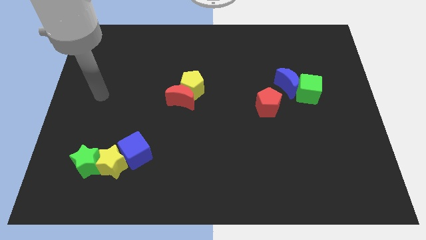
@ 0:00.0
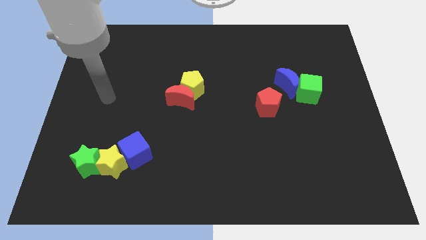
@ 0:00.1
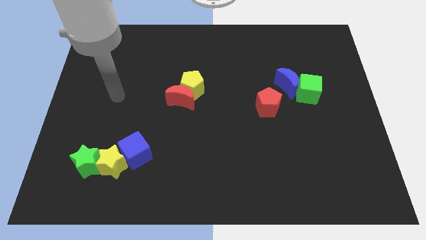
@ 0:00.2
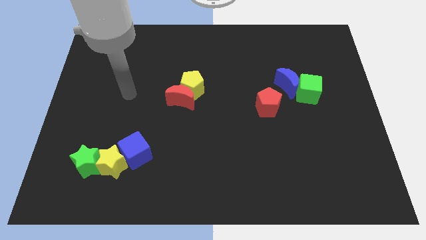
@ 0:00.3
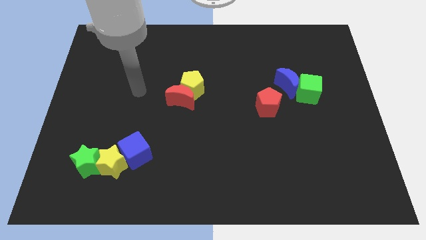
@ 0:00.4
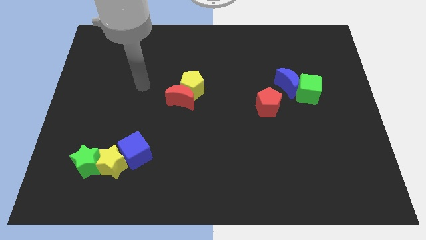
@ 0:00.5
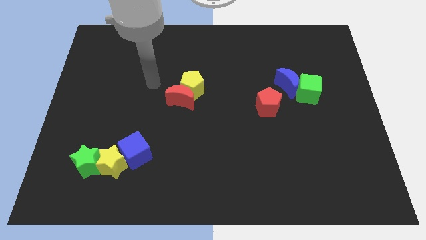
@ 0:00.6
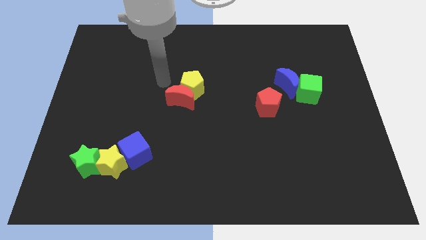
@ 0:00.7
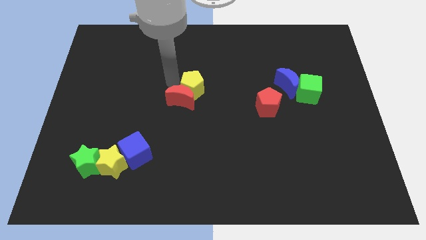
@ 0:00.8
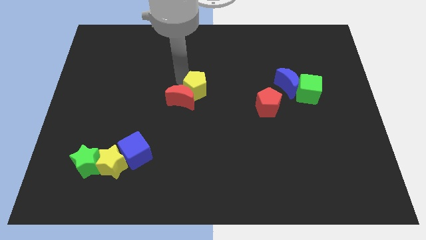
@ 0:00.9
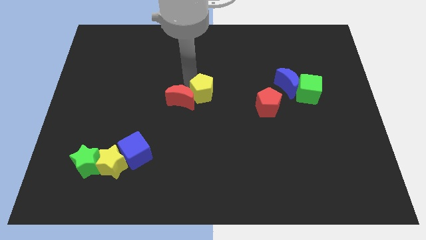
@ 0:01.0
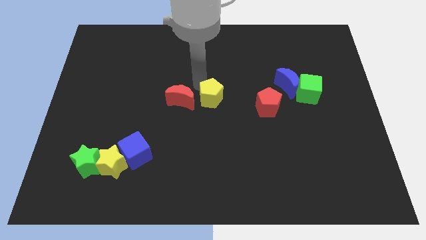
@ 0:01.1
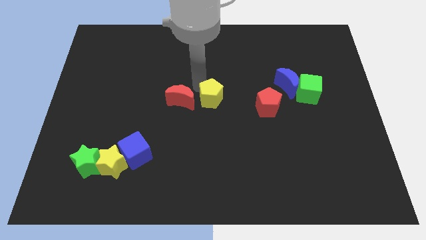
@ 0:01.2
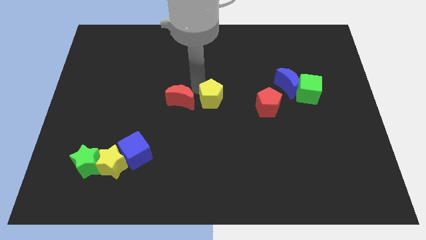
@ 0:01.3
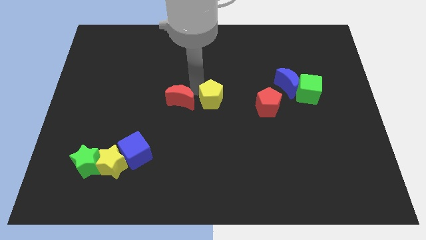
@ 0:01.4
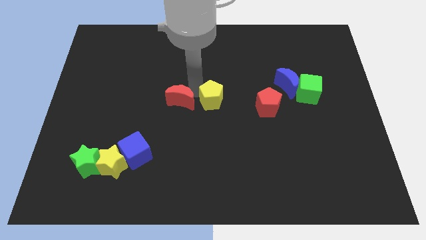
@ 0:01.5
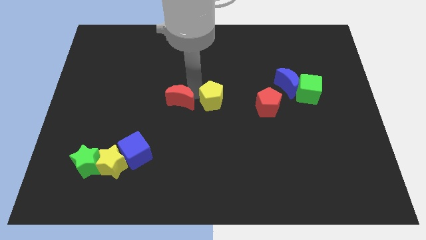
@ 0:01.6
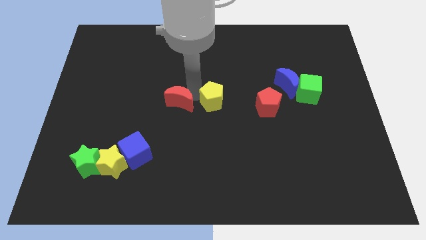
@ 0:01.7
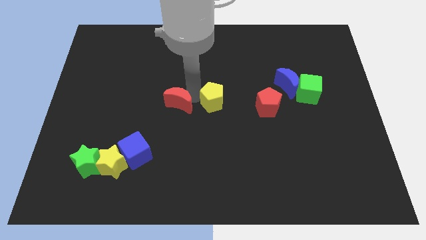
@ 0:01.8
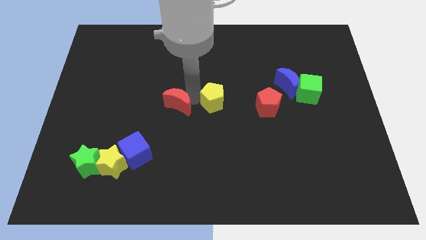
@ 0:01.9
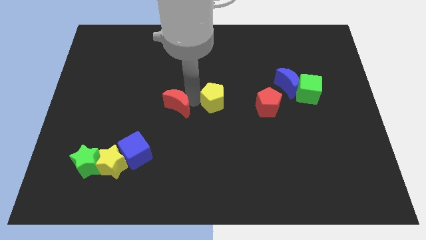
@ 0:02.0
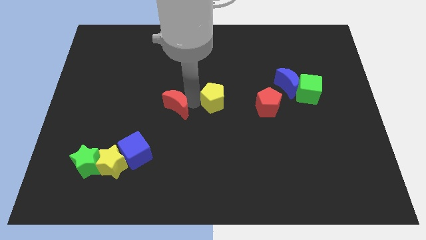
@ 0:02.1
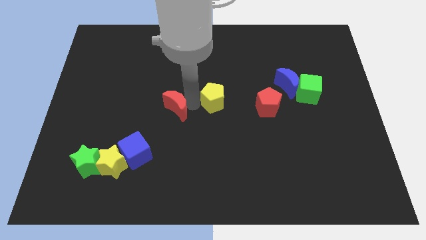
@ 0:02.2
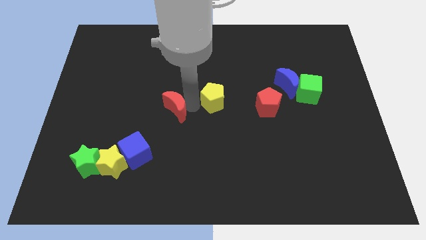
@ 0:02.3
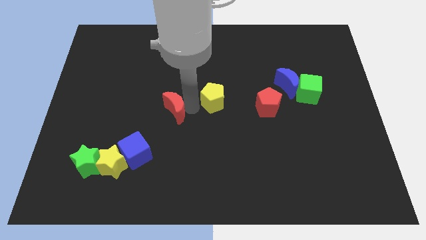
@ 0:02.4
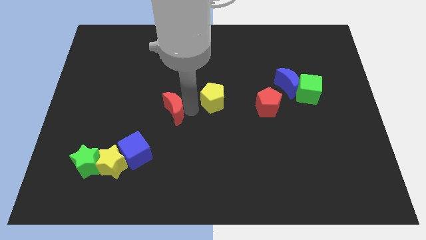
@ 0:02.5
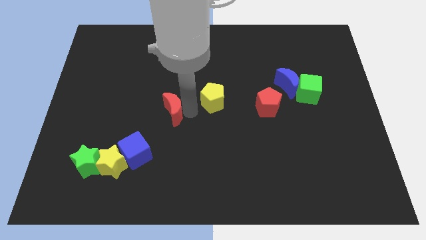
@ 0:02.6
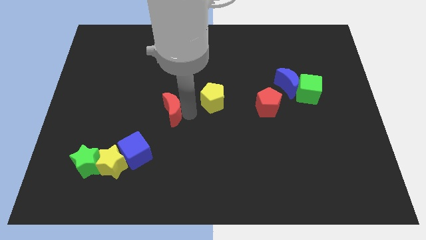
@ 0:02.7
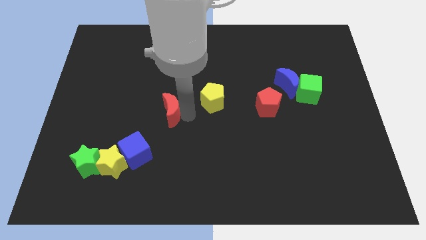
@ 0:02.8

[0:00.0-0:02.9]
move the red moon away from the yellow pentagon

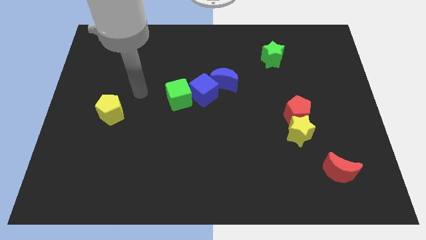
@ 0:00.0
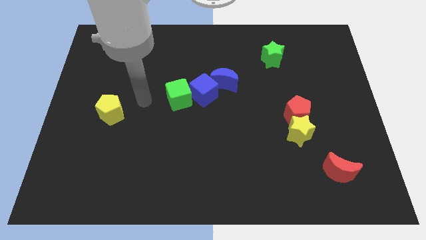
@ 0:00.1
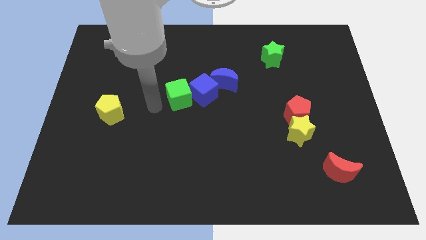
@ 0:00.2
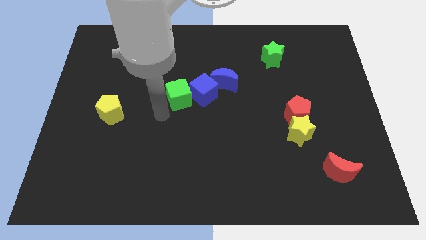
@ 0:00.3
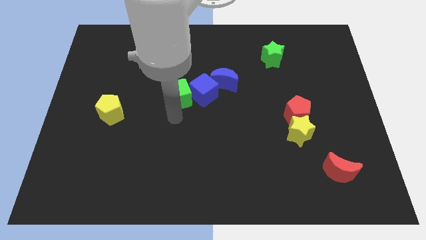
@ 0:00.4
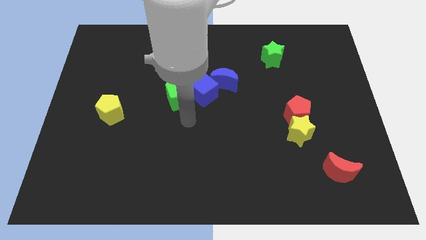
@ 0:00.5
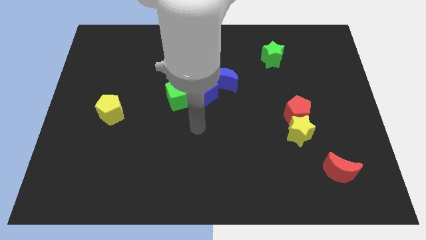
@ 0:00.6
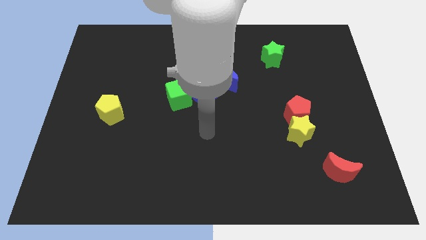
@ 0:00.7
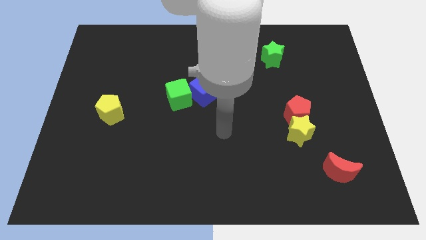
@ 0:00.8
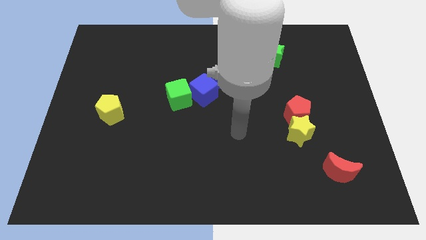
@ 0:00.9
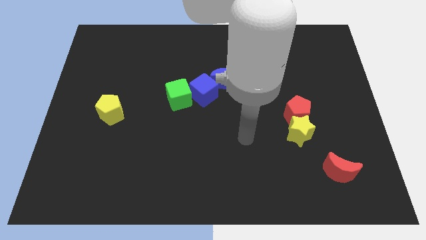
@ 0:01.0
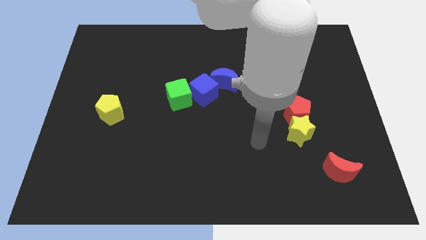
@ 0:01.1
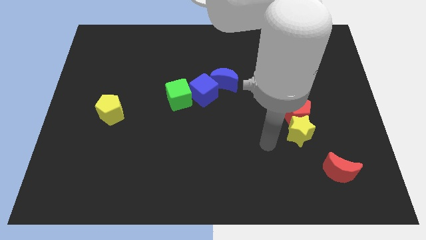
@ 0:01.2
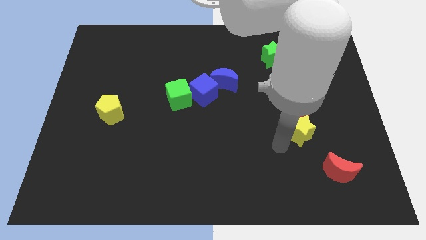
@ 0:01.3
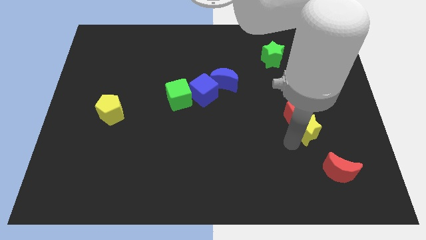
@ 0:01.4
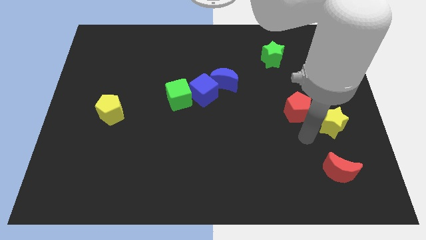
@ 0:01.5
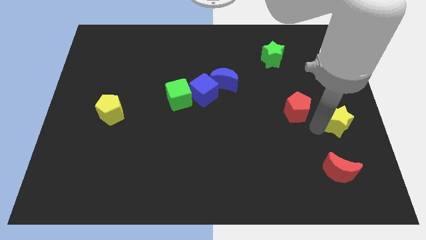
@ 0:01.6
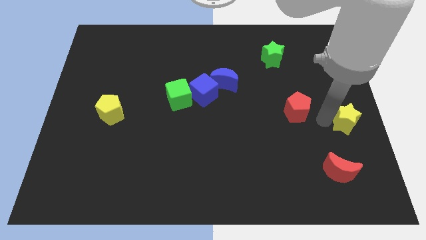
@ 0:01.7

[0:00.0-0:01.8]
pull the red pentagon apart from the yellow star

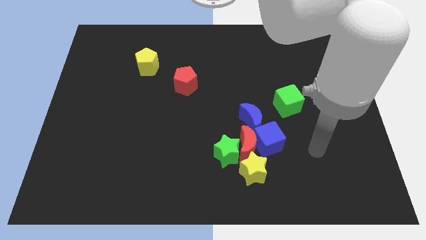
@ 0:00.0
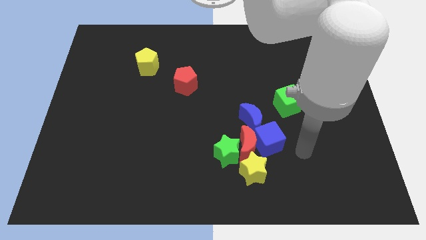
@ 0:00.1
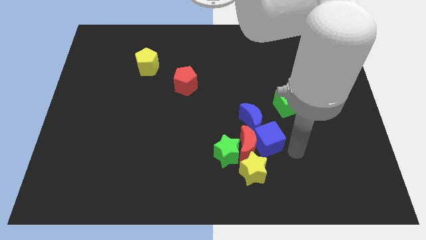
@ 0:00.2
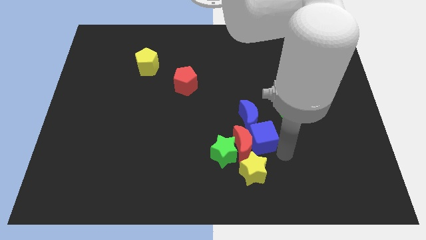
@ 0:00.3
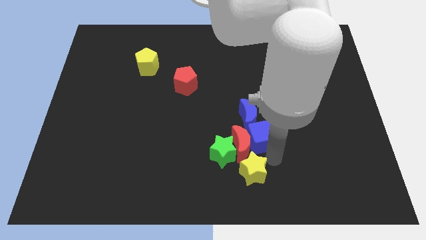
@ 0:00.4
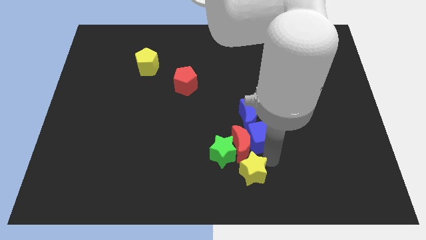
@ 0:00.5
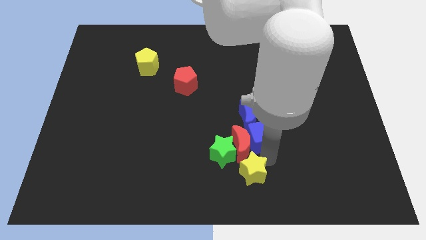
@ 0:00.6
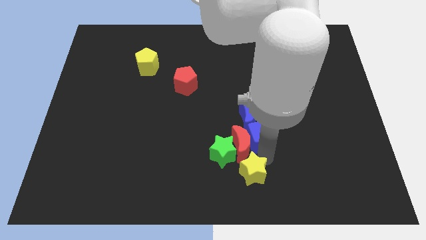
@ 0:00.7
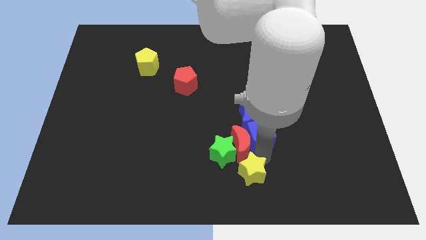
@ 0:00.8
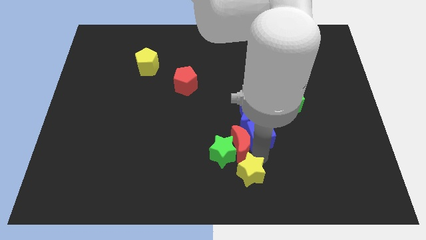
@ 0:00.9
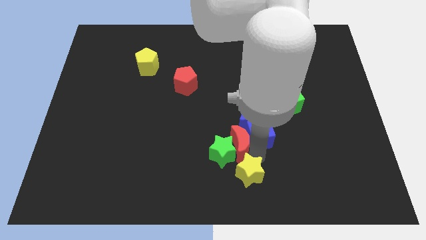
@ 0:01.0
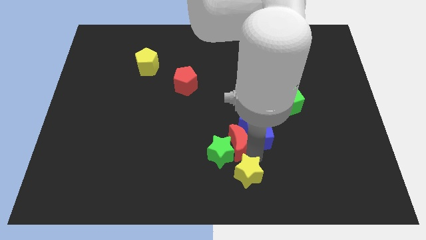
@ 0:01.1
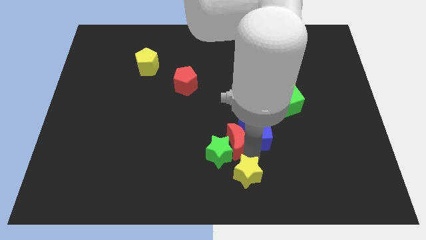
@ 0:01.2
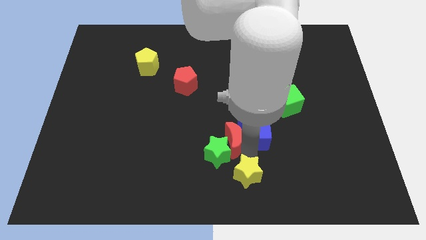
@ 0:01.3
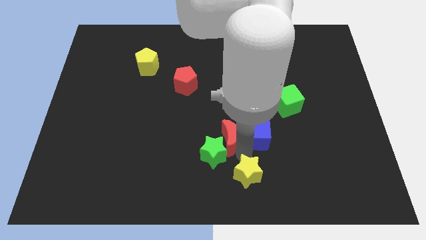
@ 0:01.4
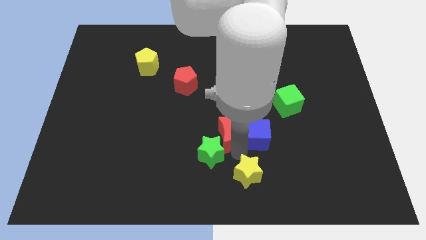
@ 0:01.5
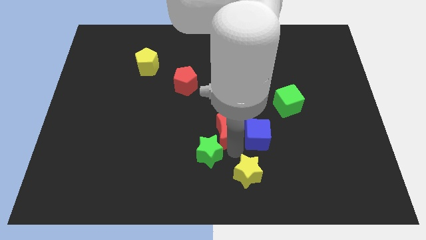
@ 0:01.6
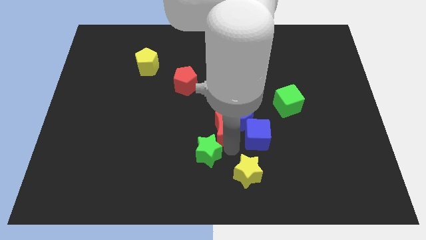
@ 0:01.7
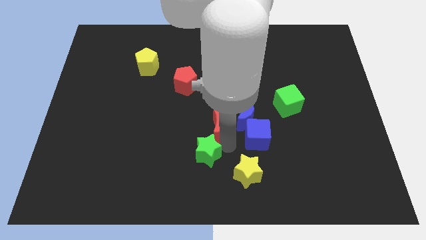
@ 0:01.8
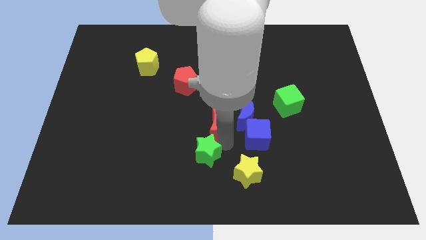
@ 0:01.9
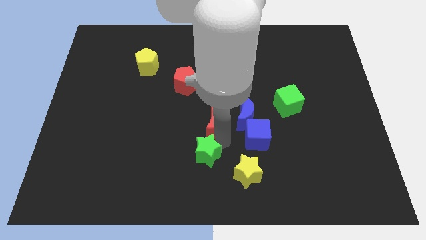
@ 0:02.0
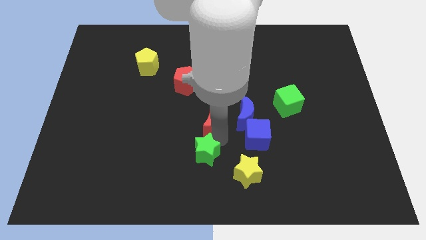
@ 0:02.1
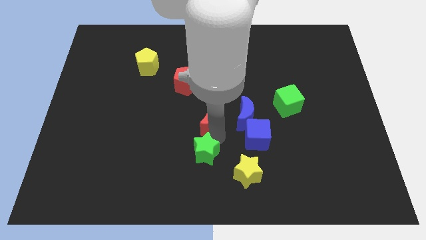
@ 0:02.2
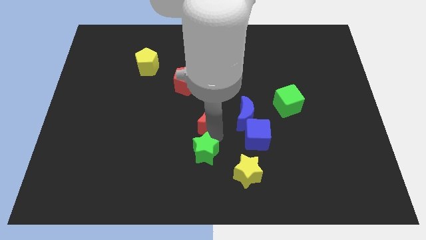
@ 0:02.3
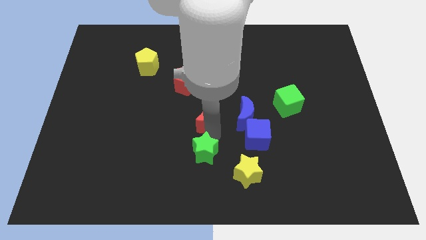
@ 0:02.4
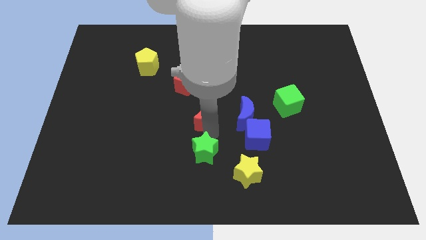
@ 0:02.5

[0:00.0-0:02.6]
move the red moon away from the clump

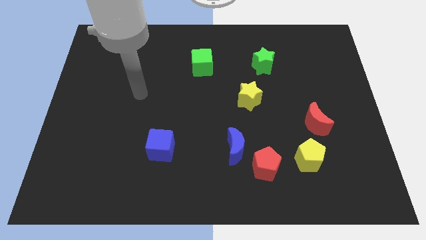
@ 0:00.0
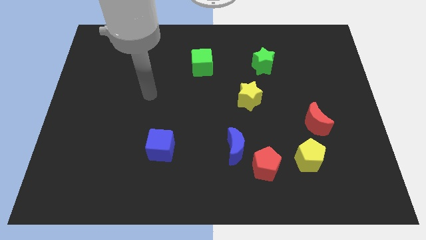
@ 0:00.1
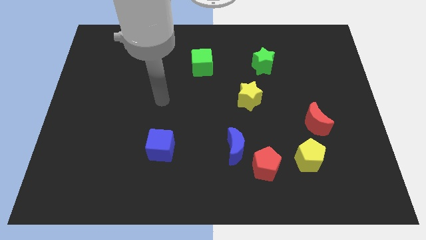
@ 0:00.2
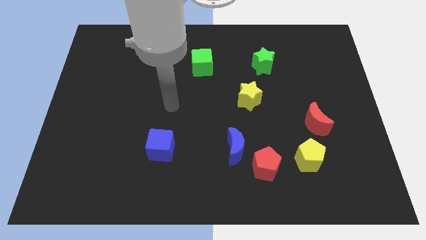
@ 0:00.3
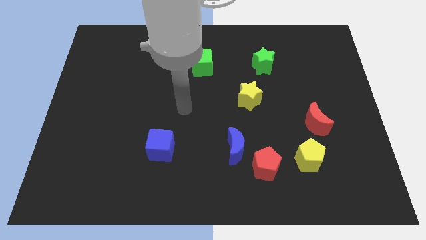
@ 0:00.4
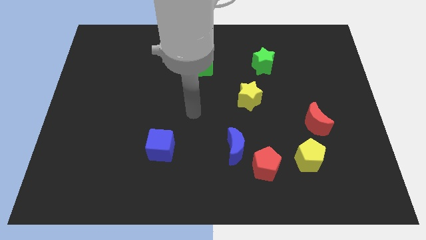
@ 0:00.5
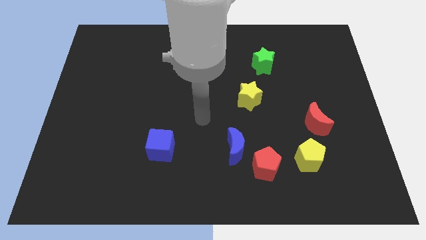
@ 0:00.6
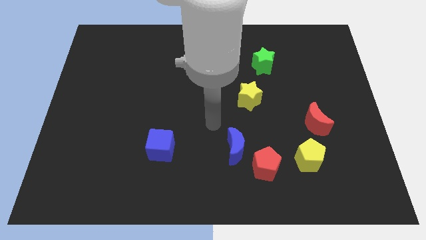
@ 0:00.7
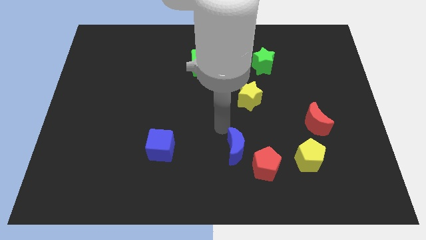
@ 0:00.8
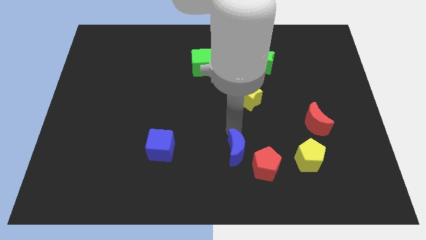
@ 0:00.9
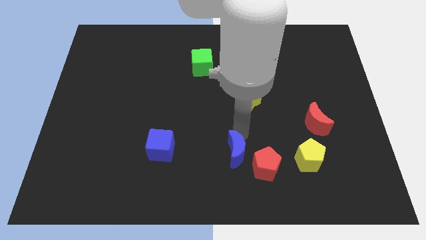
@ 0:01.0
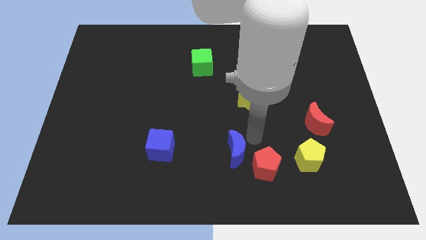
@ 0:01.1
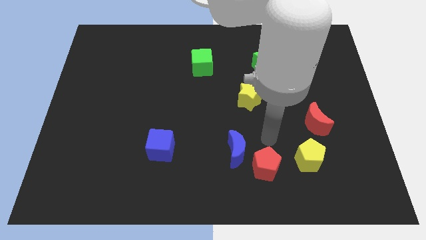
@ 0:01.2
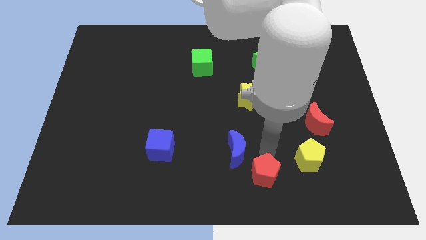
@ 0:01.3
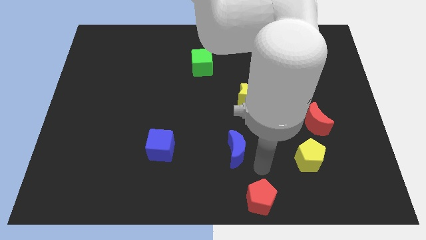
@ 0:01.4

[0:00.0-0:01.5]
separate the blue moon from the red pentagon

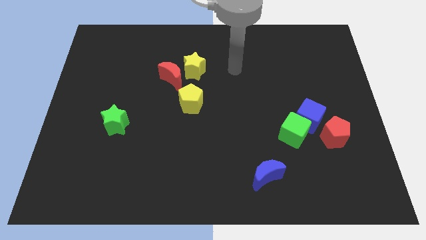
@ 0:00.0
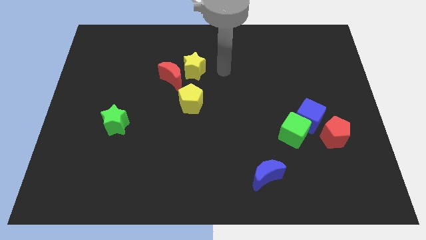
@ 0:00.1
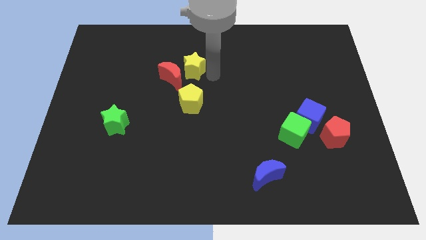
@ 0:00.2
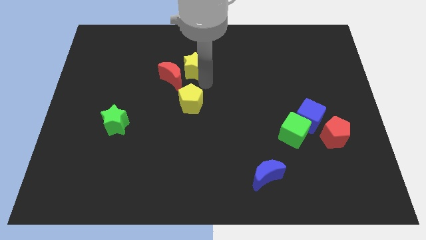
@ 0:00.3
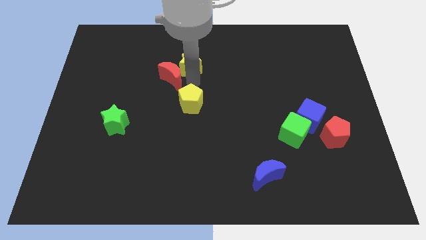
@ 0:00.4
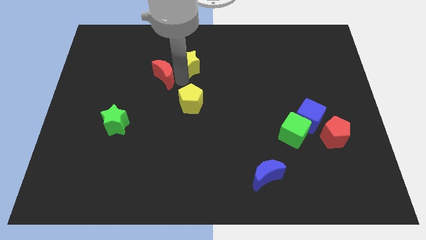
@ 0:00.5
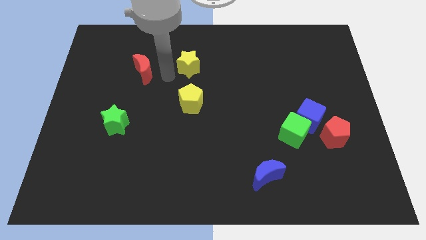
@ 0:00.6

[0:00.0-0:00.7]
move the yellow star away from the red moon
